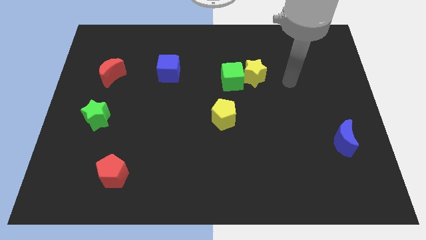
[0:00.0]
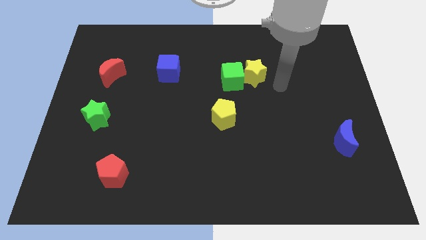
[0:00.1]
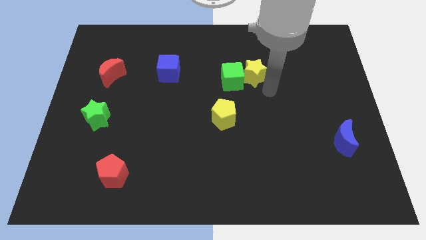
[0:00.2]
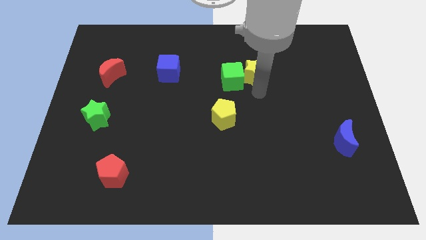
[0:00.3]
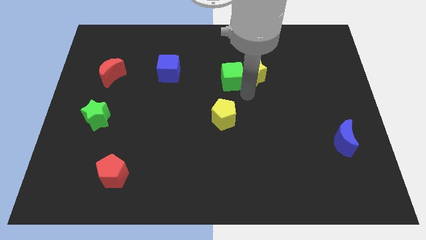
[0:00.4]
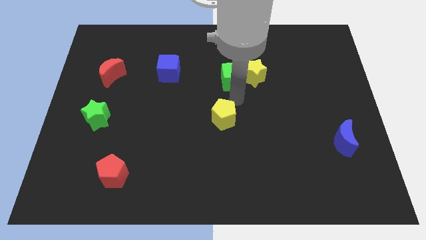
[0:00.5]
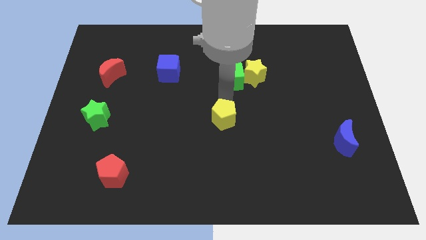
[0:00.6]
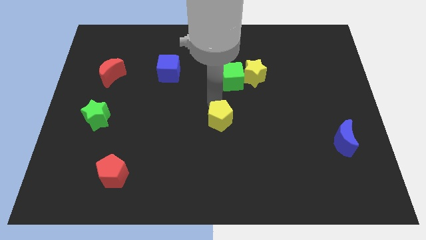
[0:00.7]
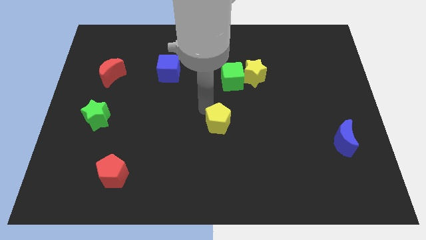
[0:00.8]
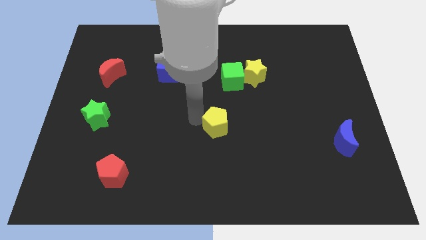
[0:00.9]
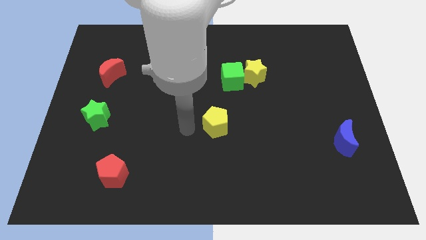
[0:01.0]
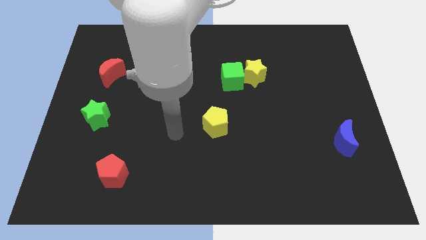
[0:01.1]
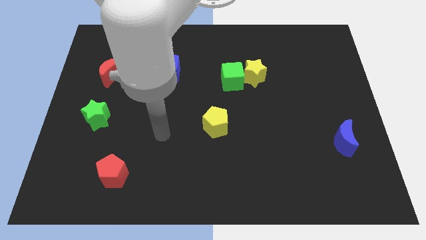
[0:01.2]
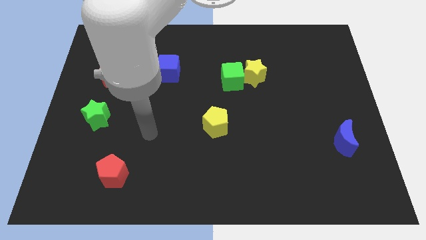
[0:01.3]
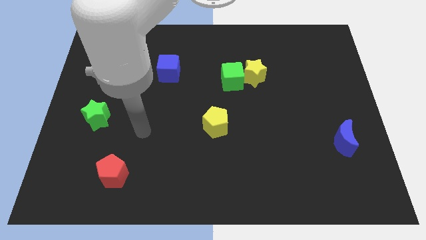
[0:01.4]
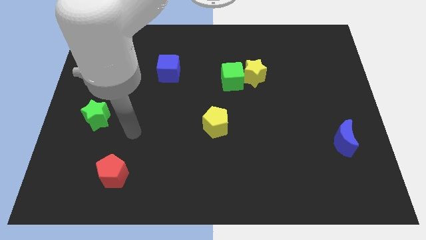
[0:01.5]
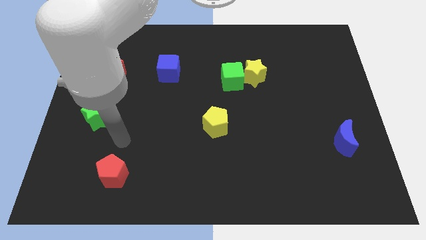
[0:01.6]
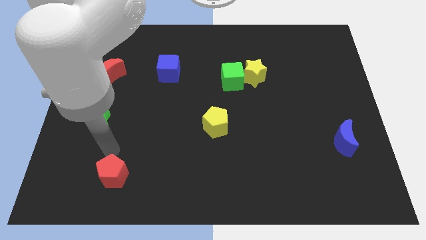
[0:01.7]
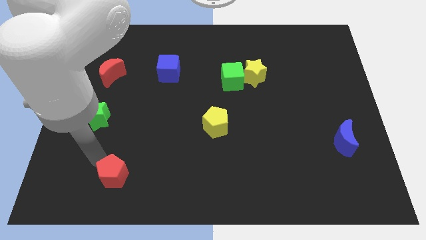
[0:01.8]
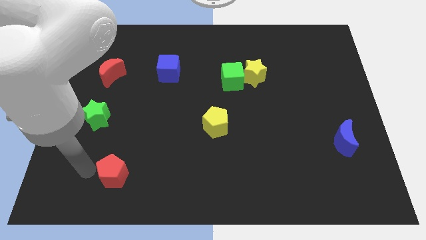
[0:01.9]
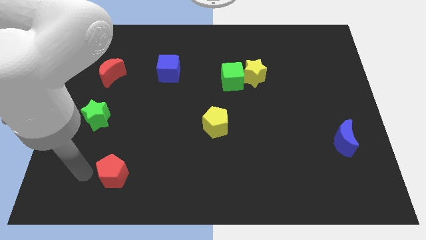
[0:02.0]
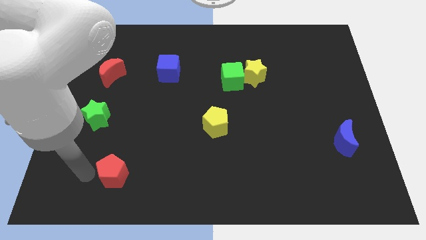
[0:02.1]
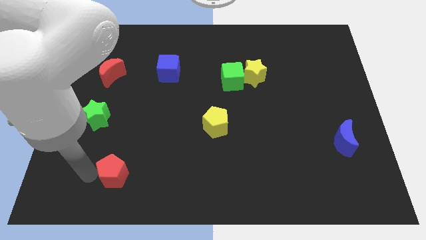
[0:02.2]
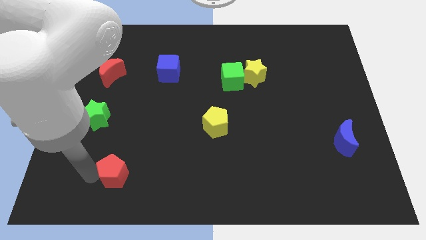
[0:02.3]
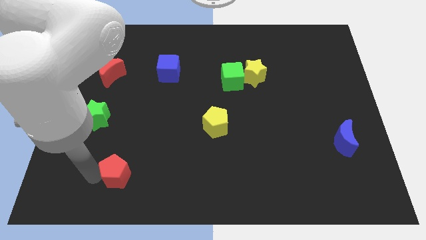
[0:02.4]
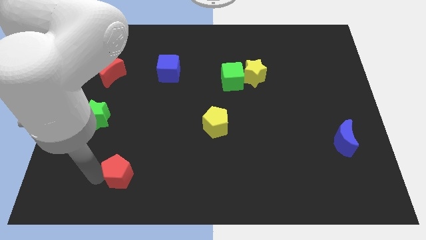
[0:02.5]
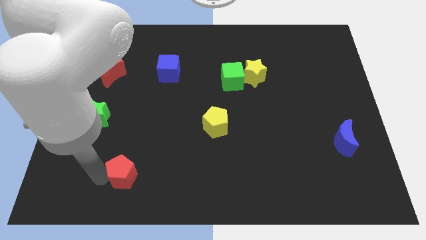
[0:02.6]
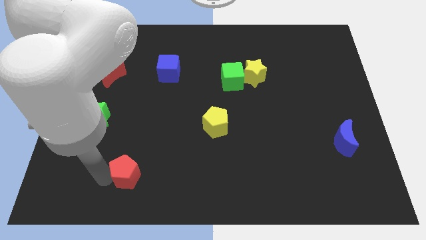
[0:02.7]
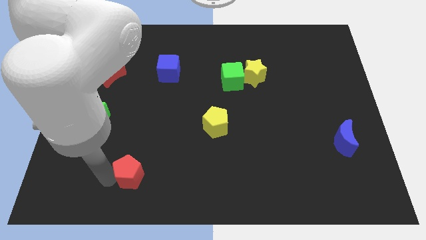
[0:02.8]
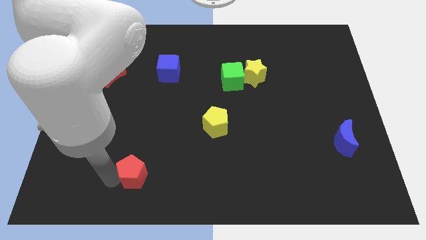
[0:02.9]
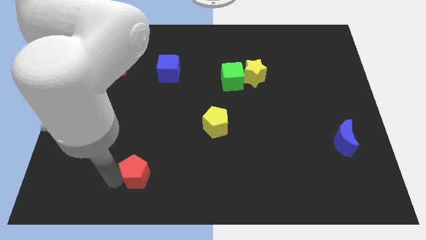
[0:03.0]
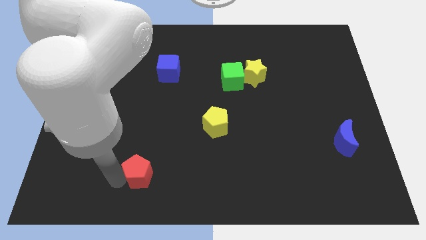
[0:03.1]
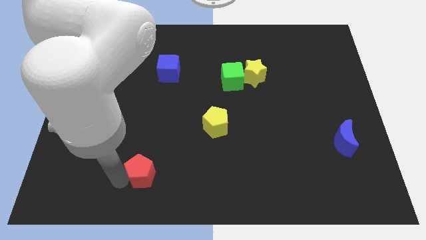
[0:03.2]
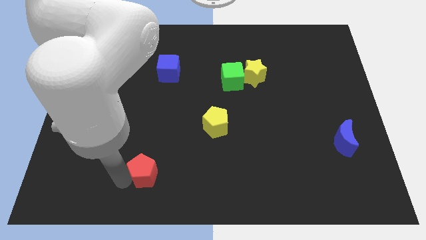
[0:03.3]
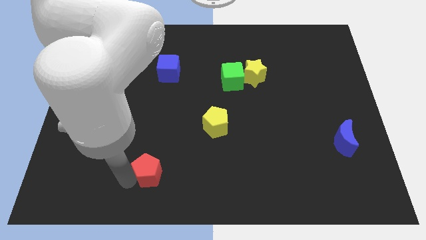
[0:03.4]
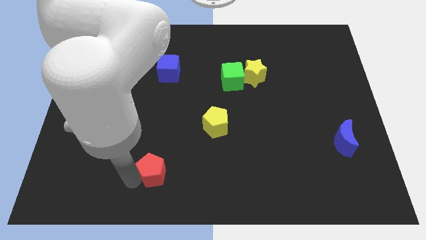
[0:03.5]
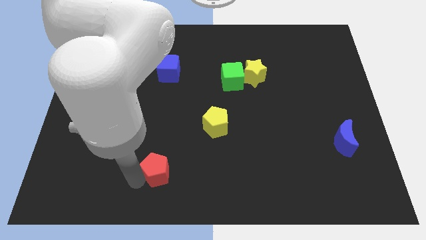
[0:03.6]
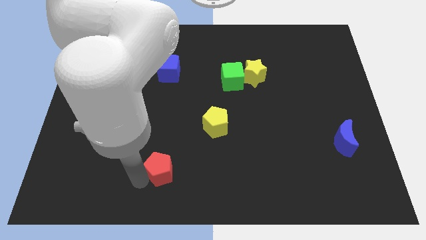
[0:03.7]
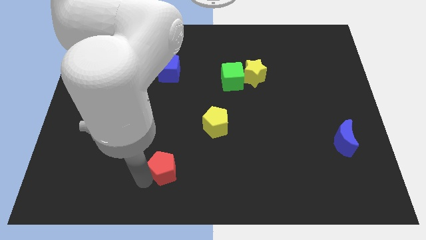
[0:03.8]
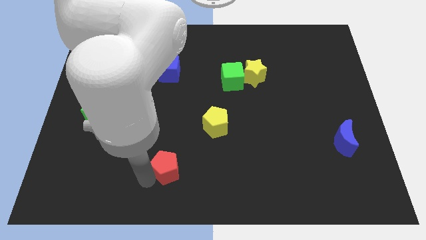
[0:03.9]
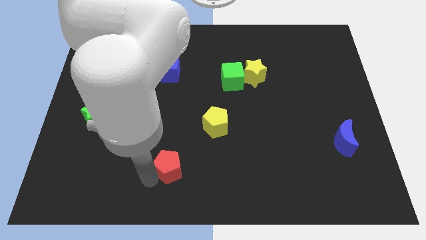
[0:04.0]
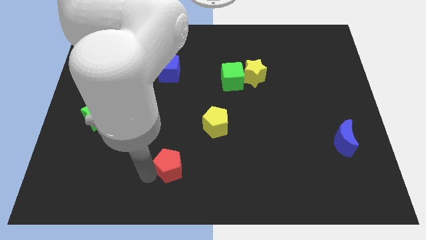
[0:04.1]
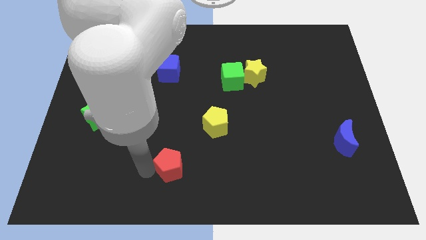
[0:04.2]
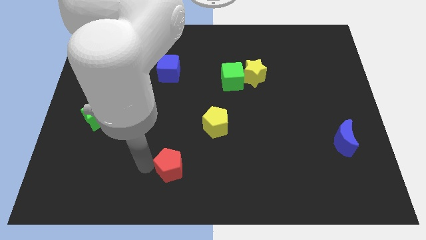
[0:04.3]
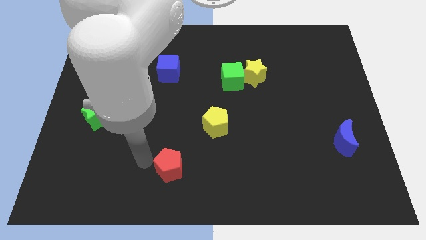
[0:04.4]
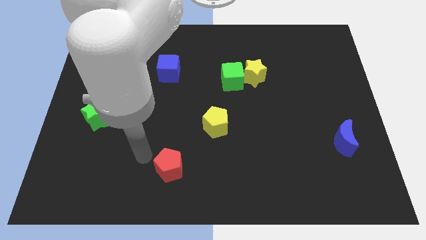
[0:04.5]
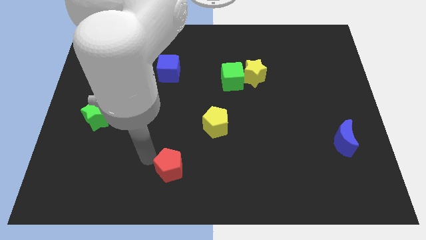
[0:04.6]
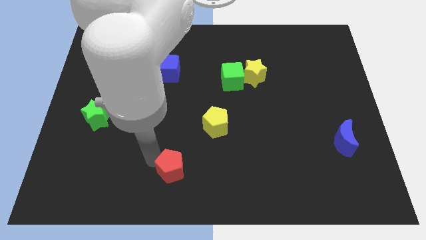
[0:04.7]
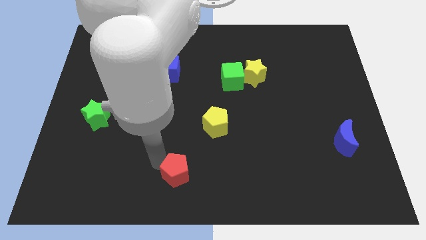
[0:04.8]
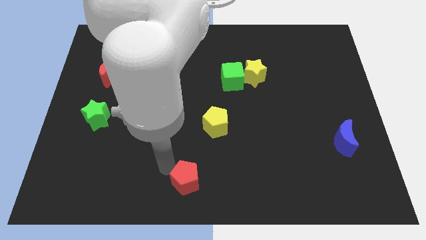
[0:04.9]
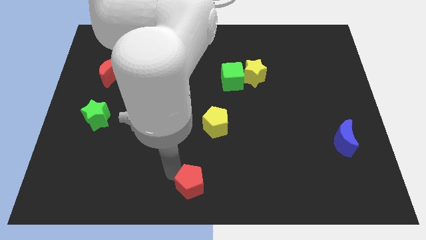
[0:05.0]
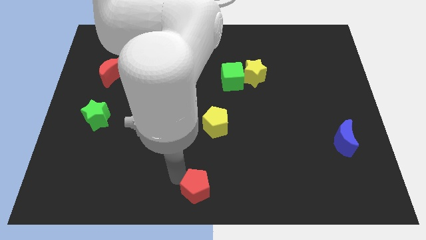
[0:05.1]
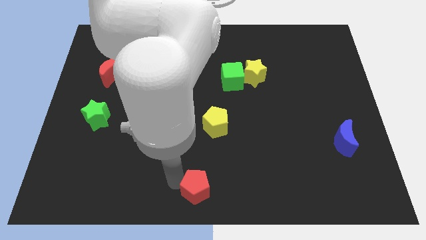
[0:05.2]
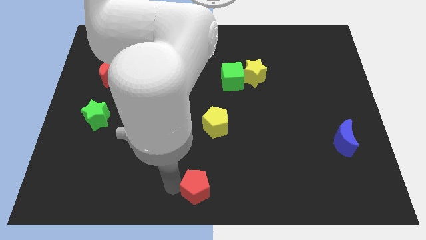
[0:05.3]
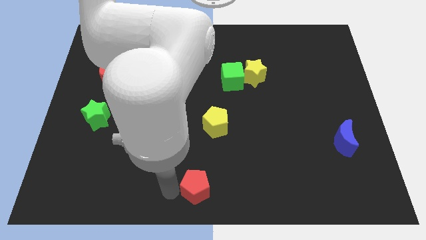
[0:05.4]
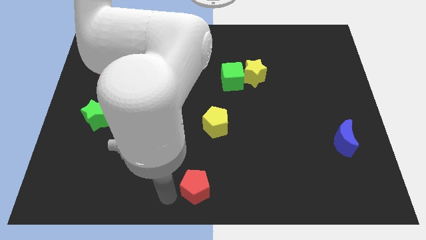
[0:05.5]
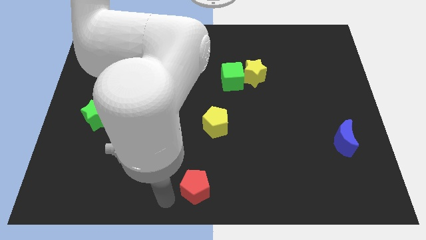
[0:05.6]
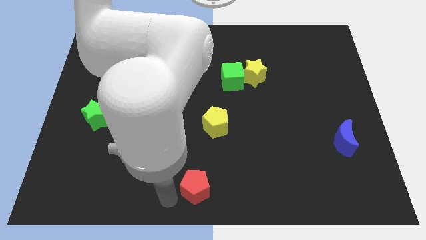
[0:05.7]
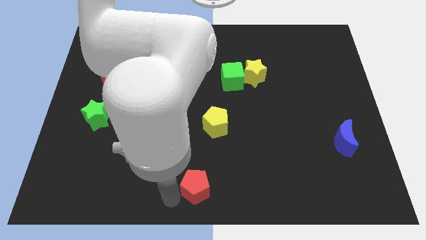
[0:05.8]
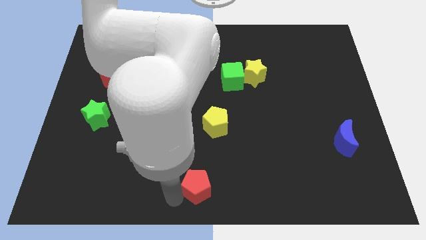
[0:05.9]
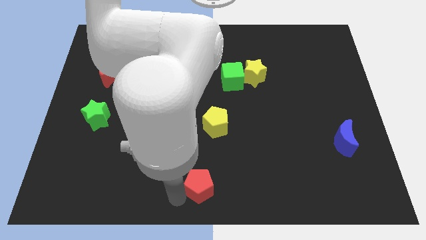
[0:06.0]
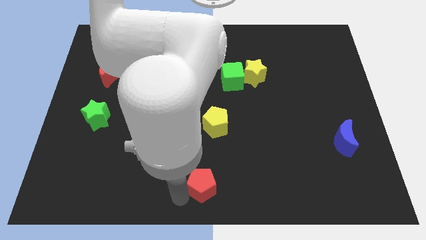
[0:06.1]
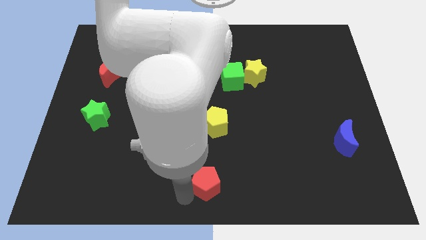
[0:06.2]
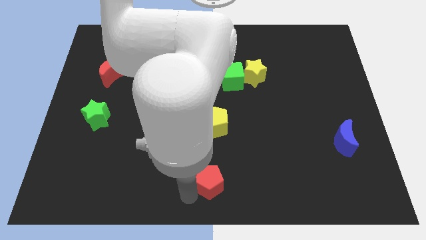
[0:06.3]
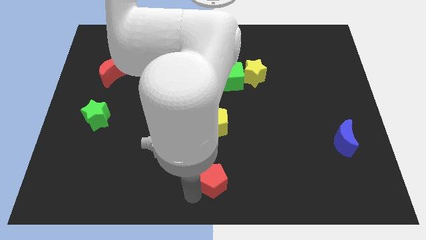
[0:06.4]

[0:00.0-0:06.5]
push the red pentagon right

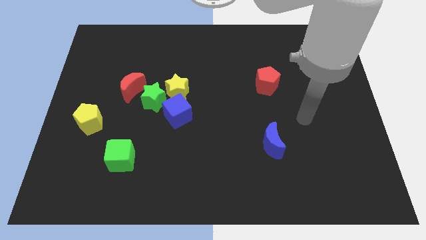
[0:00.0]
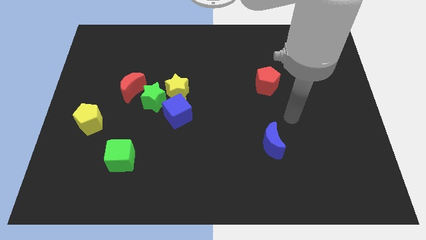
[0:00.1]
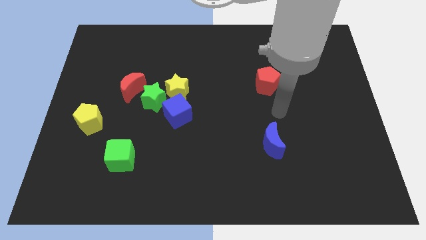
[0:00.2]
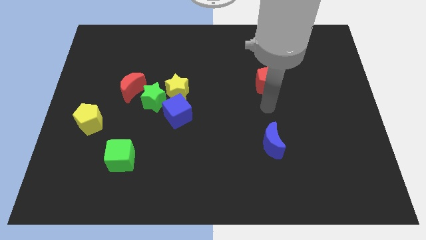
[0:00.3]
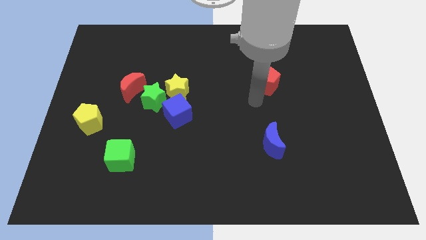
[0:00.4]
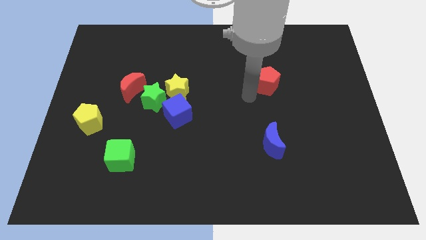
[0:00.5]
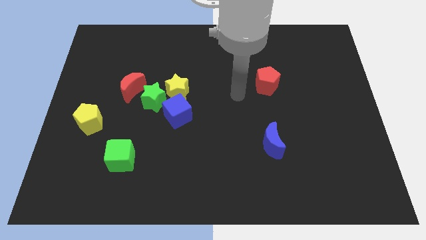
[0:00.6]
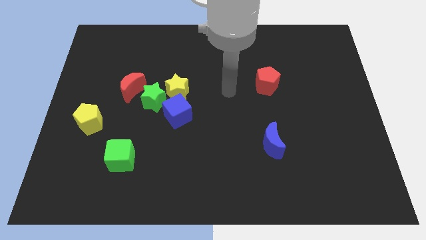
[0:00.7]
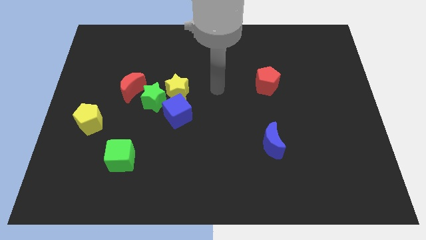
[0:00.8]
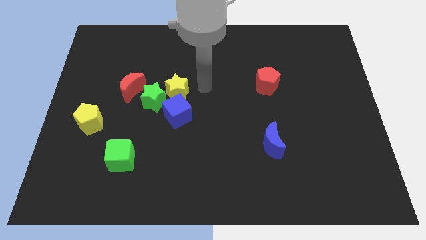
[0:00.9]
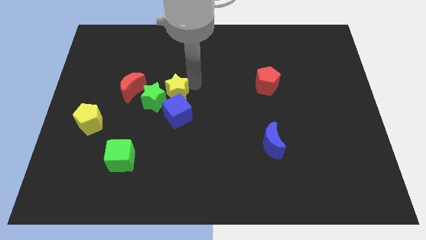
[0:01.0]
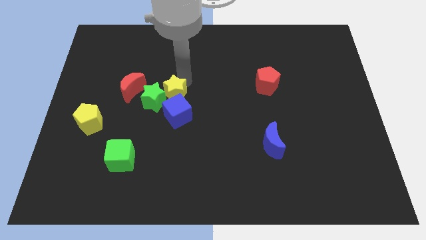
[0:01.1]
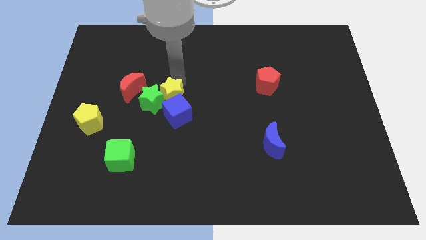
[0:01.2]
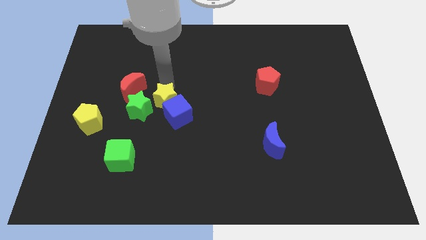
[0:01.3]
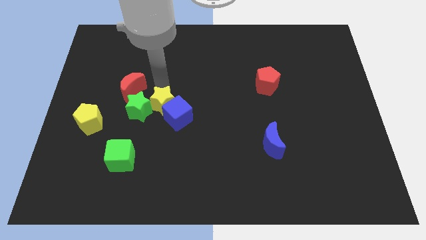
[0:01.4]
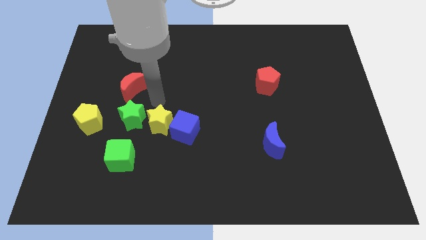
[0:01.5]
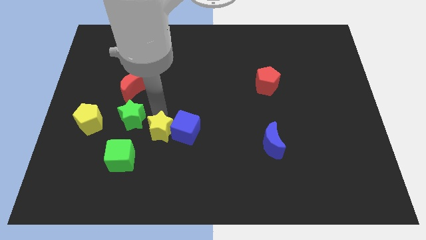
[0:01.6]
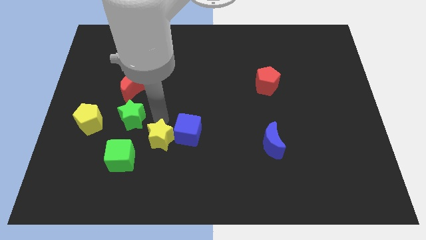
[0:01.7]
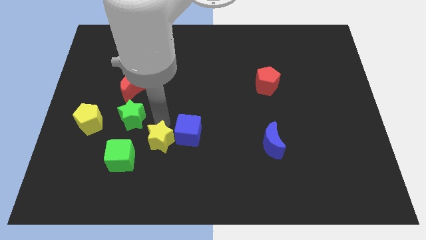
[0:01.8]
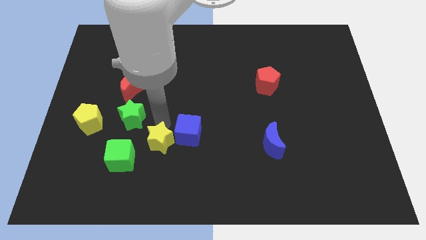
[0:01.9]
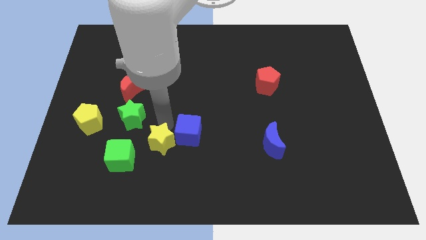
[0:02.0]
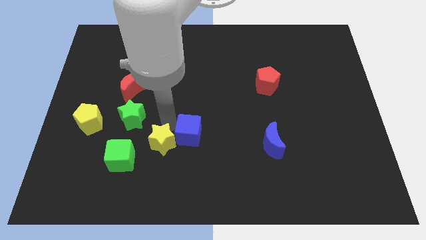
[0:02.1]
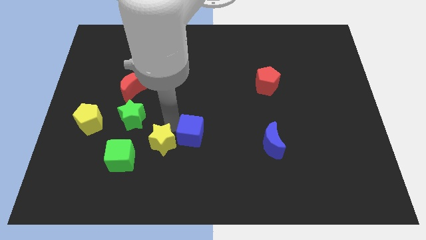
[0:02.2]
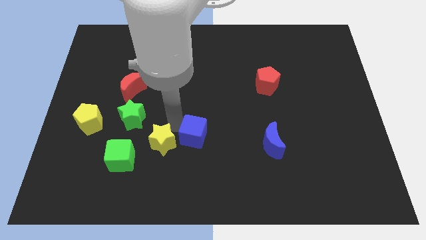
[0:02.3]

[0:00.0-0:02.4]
push the blue cube diagonally downwards and right somewhat
